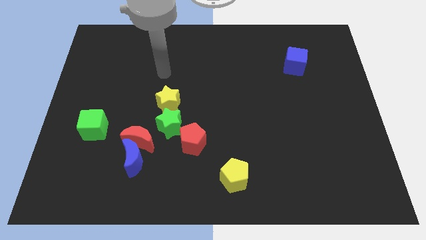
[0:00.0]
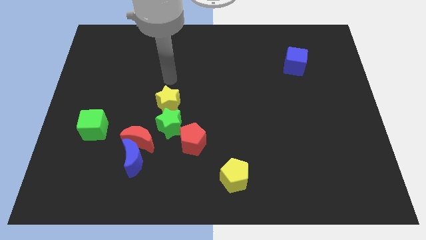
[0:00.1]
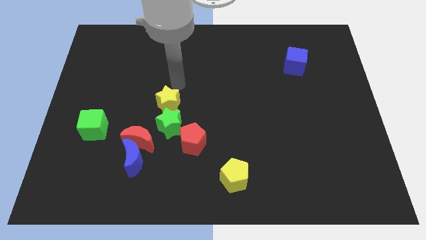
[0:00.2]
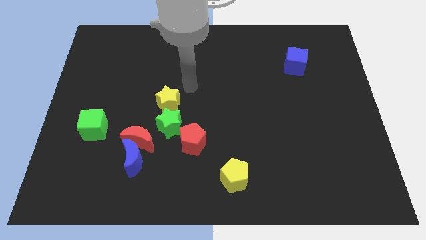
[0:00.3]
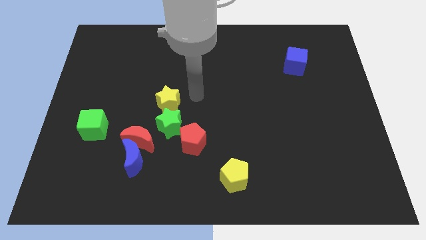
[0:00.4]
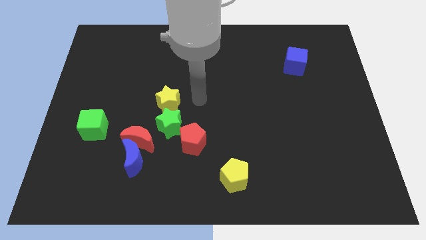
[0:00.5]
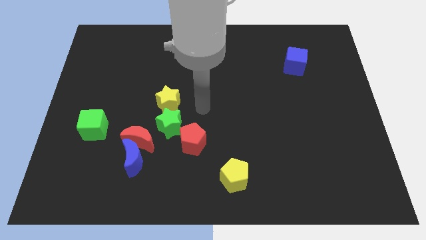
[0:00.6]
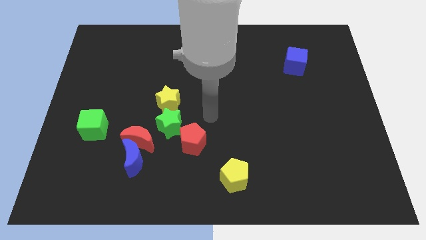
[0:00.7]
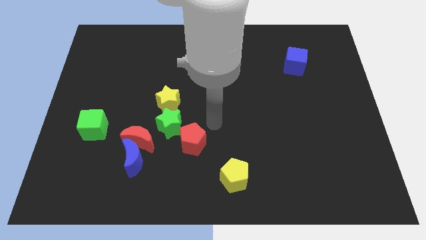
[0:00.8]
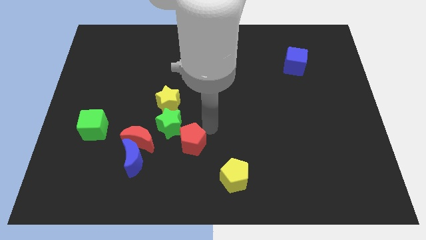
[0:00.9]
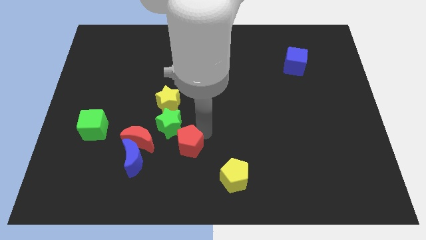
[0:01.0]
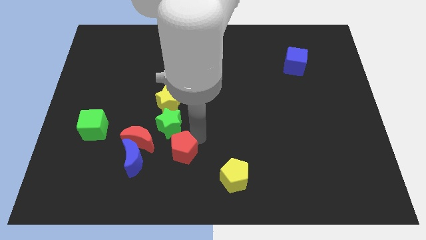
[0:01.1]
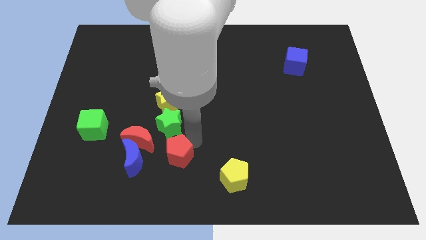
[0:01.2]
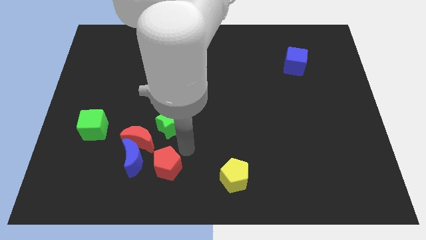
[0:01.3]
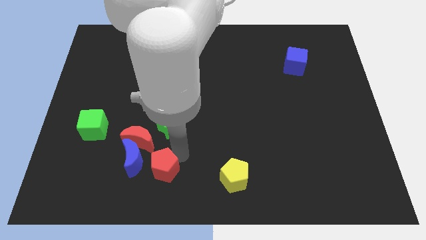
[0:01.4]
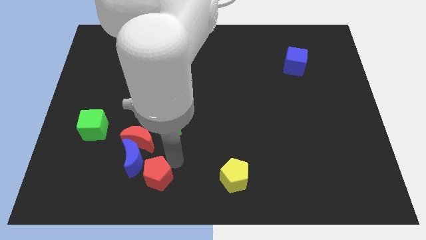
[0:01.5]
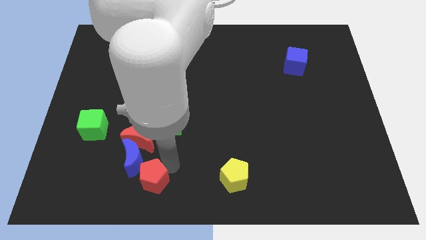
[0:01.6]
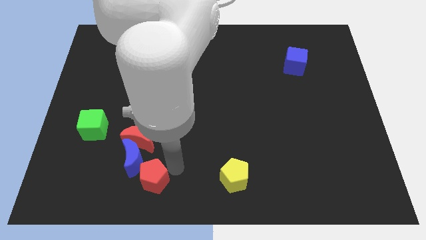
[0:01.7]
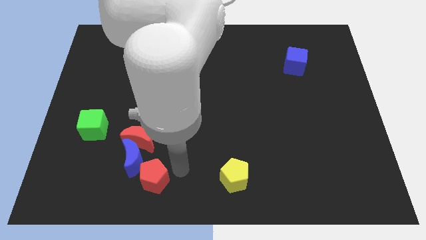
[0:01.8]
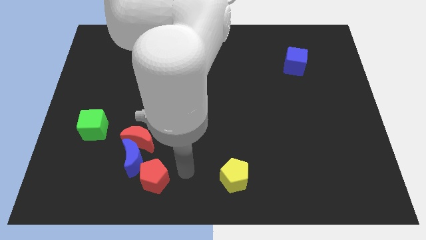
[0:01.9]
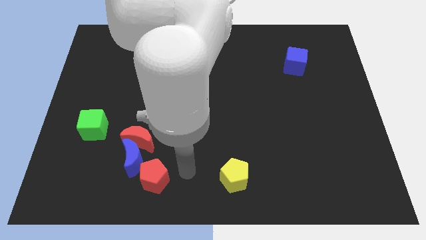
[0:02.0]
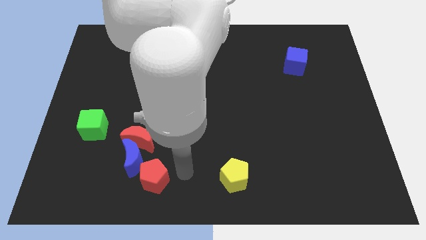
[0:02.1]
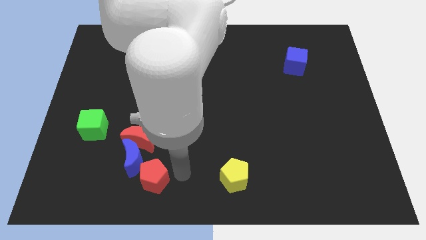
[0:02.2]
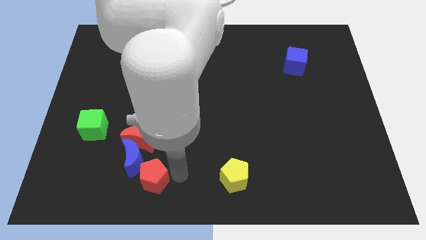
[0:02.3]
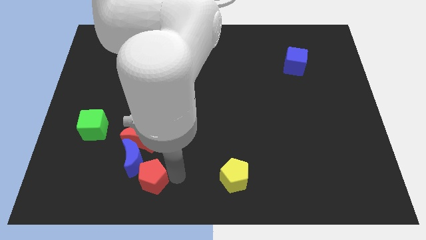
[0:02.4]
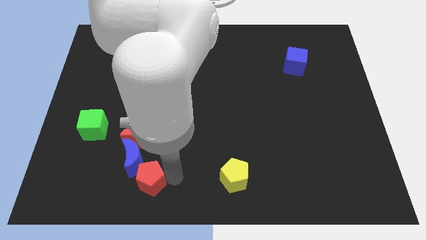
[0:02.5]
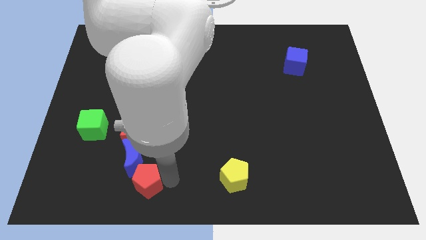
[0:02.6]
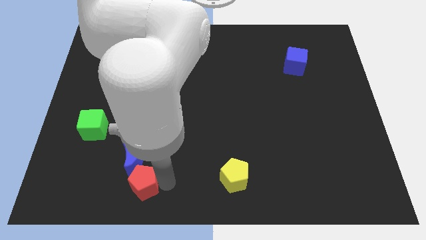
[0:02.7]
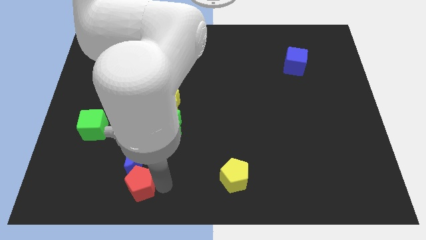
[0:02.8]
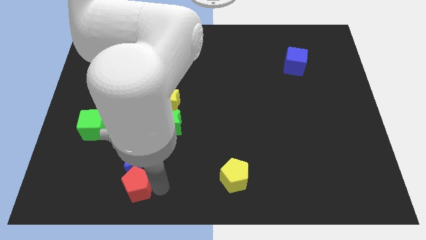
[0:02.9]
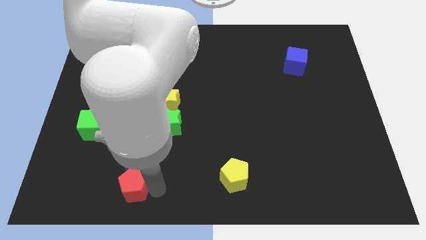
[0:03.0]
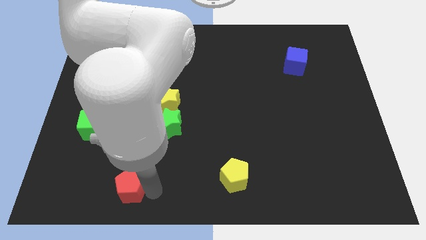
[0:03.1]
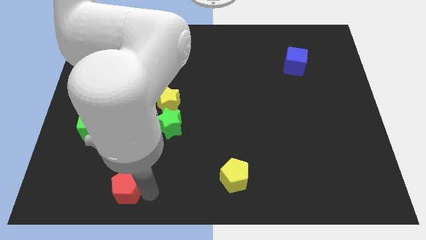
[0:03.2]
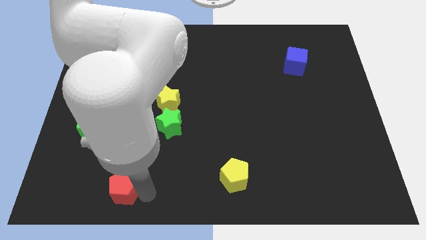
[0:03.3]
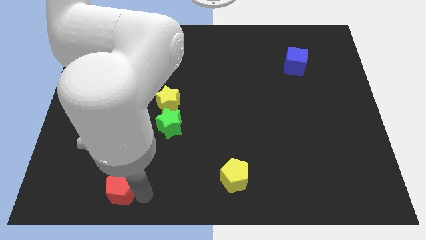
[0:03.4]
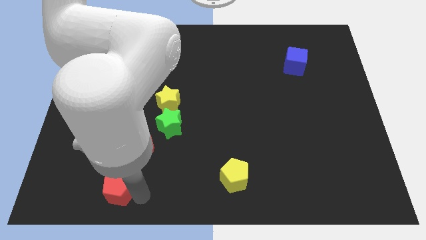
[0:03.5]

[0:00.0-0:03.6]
slightly move the red pentagon to the left

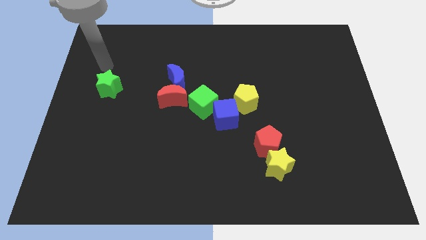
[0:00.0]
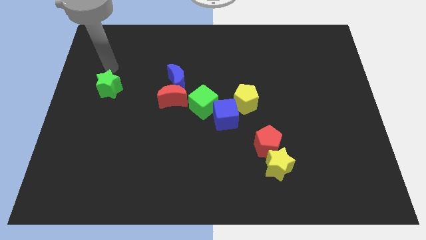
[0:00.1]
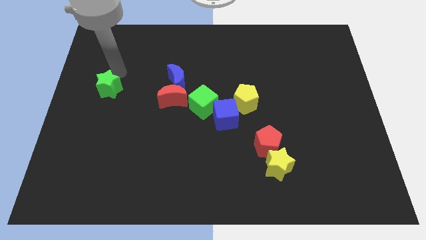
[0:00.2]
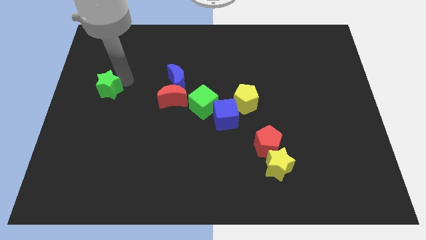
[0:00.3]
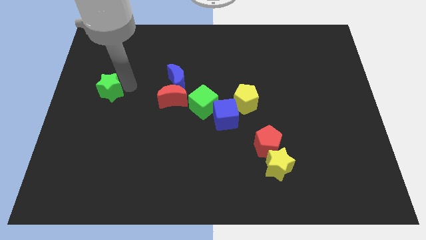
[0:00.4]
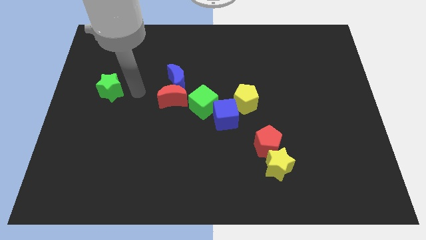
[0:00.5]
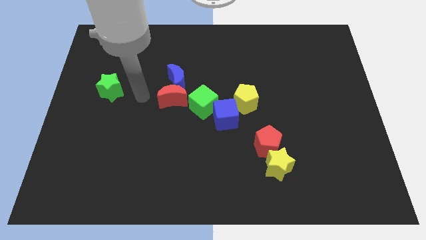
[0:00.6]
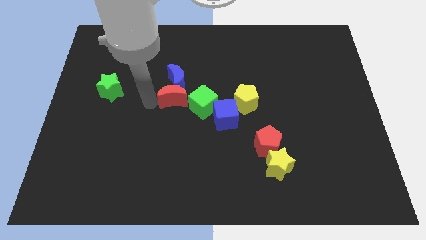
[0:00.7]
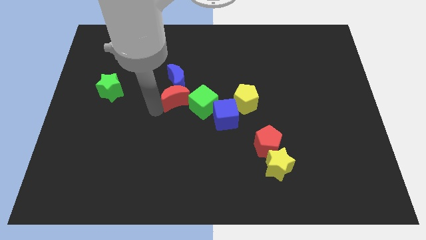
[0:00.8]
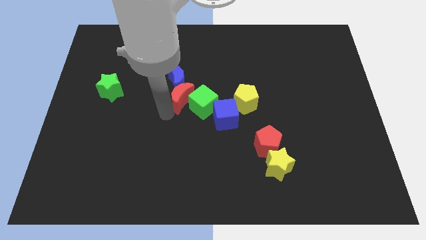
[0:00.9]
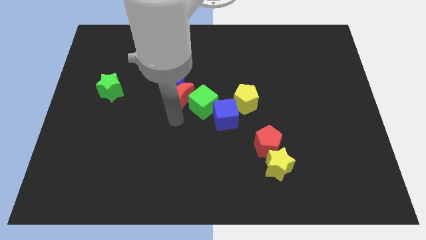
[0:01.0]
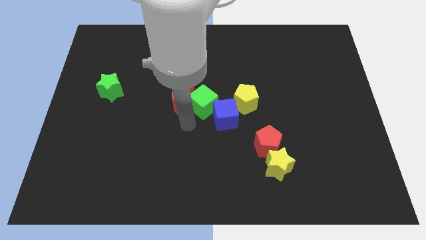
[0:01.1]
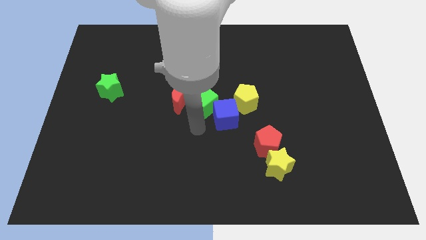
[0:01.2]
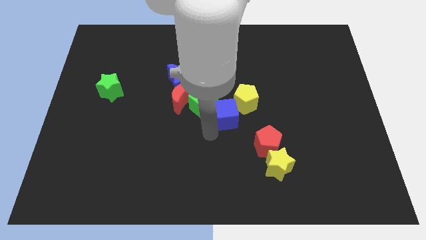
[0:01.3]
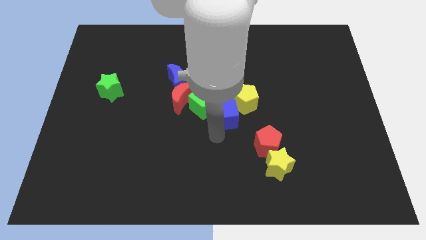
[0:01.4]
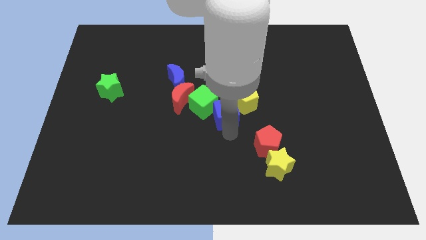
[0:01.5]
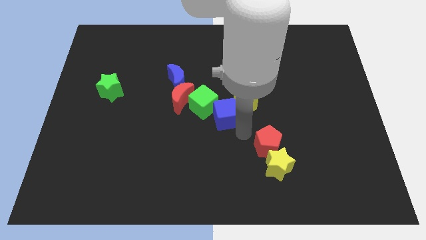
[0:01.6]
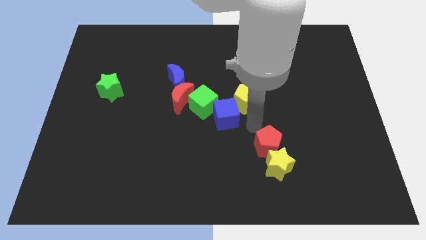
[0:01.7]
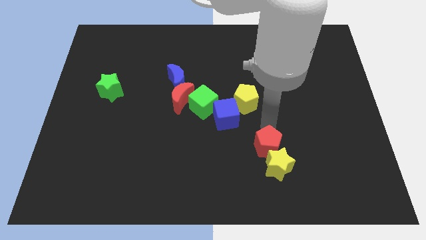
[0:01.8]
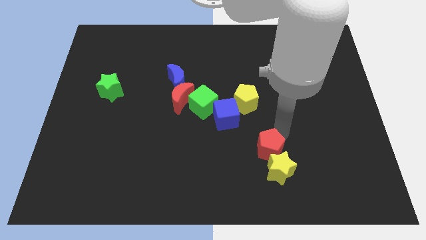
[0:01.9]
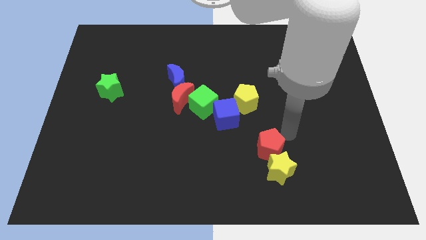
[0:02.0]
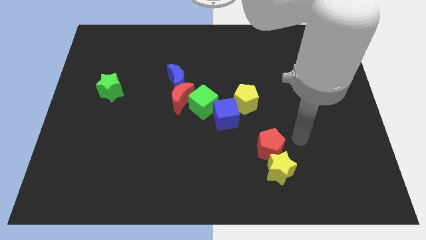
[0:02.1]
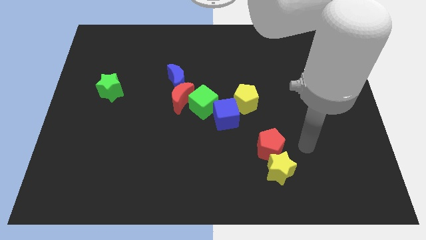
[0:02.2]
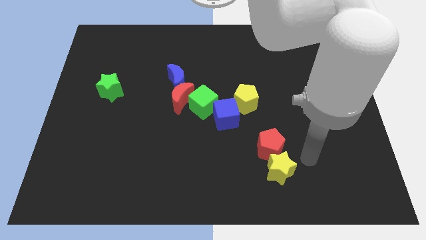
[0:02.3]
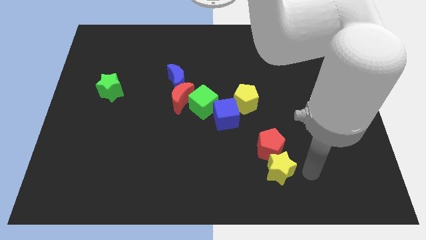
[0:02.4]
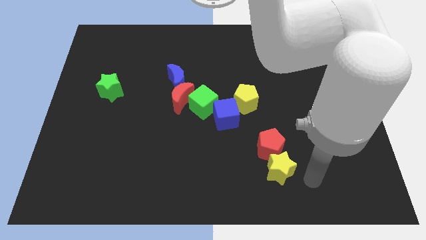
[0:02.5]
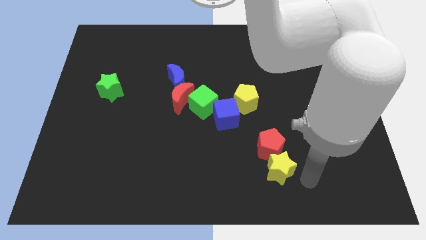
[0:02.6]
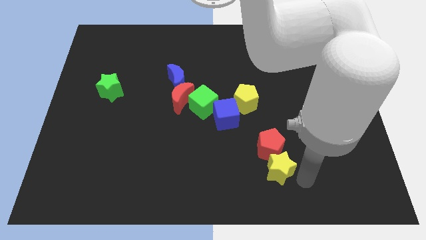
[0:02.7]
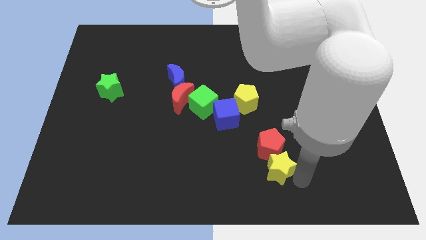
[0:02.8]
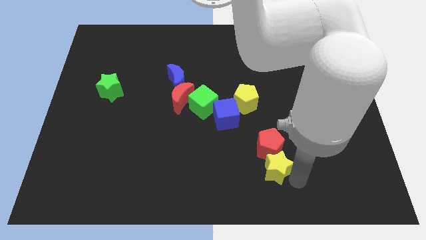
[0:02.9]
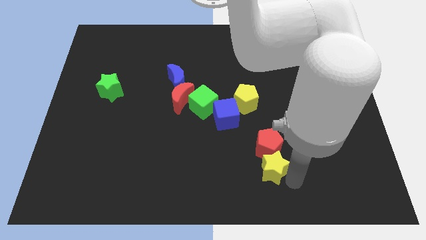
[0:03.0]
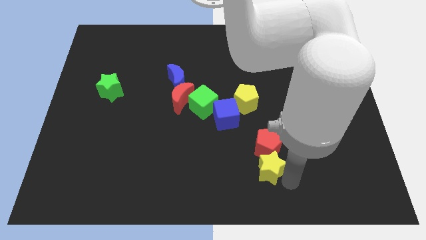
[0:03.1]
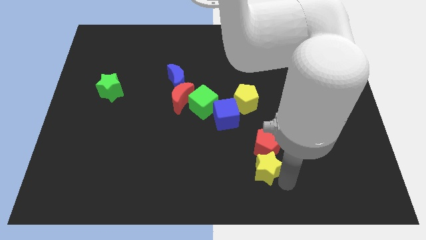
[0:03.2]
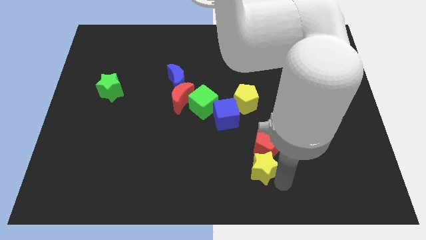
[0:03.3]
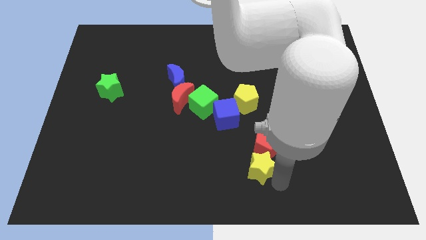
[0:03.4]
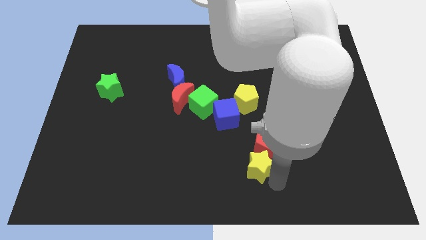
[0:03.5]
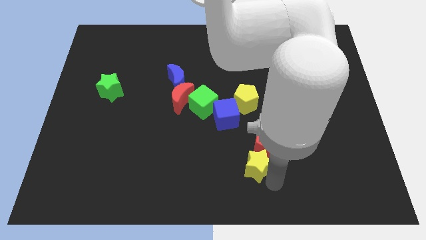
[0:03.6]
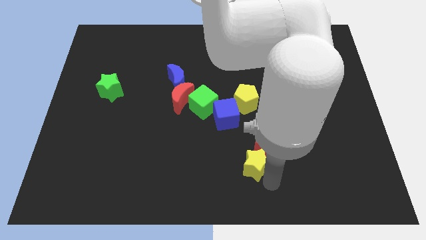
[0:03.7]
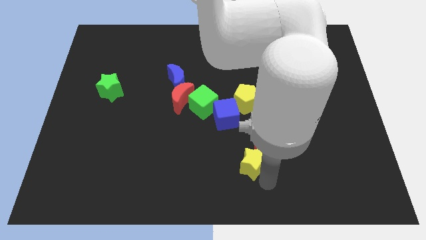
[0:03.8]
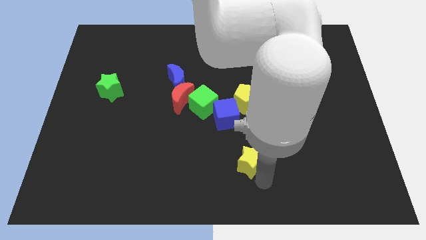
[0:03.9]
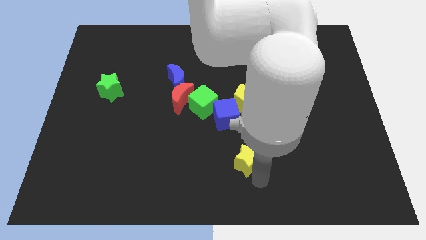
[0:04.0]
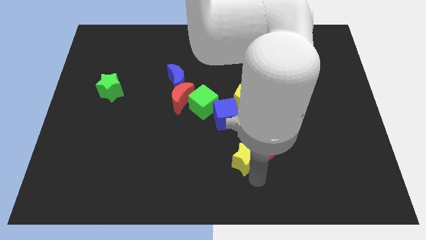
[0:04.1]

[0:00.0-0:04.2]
push the yellow star left somewhat

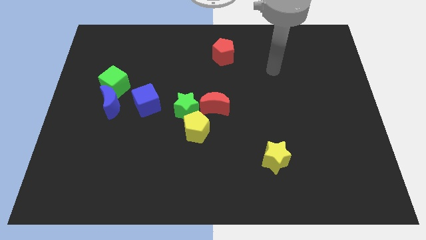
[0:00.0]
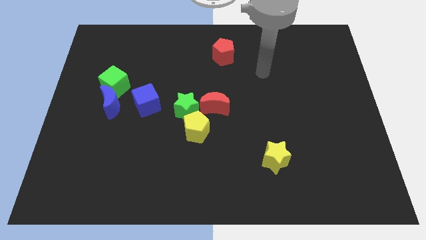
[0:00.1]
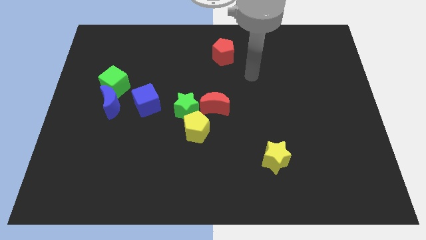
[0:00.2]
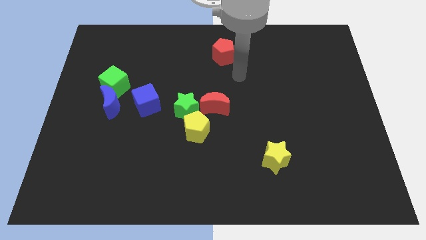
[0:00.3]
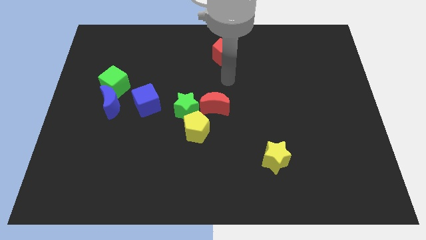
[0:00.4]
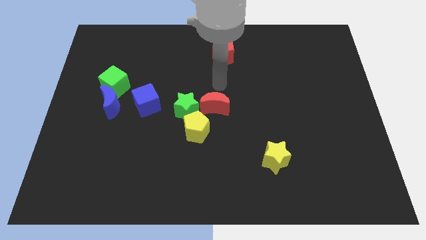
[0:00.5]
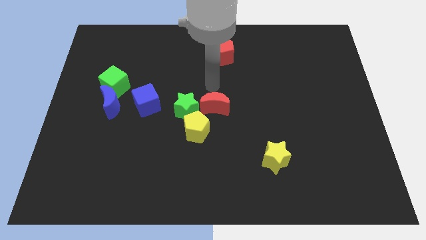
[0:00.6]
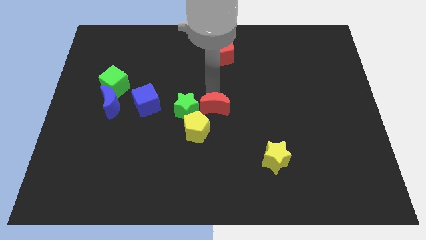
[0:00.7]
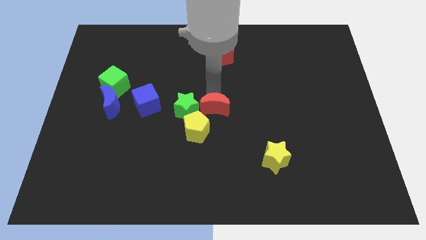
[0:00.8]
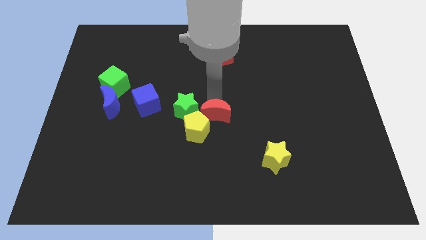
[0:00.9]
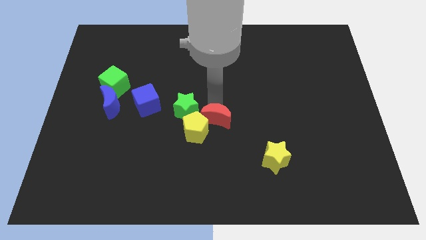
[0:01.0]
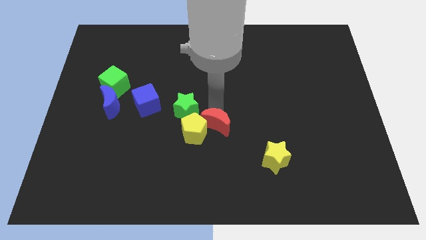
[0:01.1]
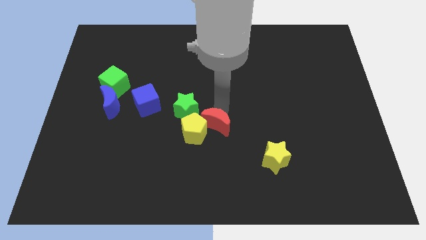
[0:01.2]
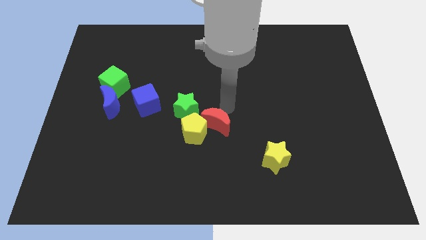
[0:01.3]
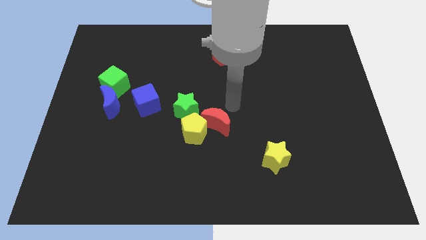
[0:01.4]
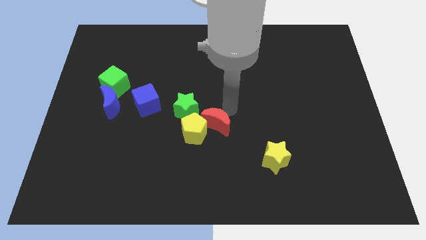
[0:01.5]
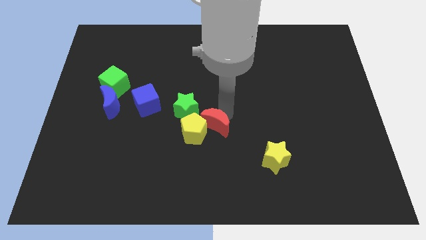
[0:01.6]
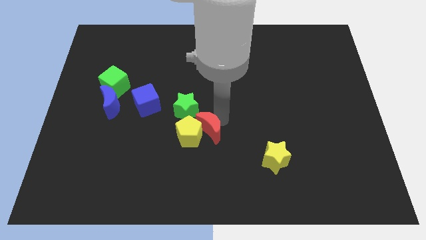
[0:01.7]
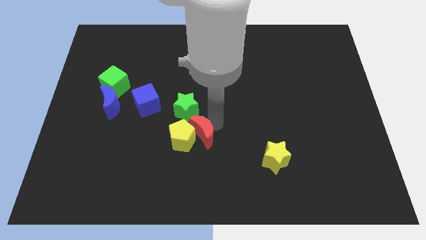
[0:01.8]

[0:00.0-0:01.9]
move the red moon downwards and then left a bit
